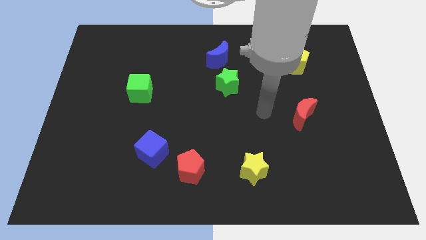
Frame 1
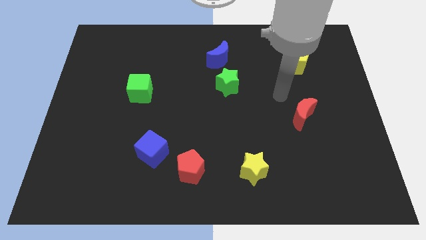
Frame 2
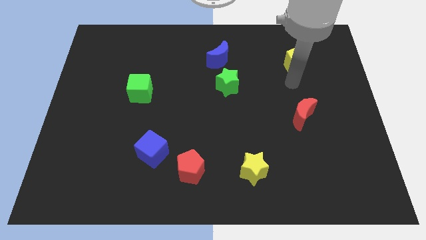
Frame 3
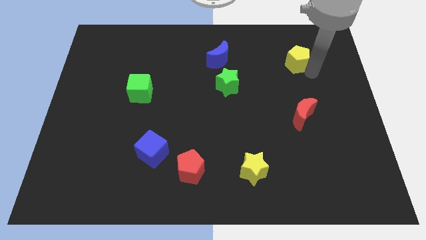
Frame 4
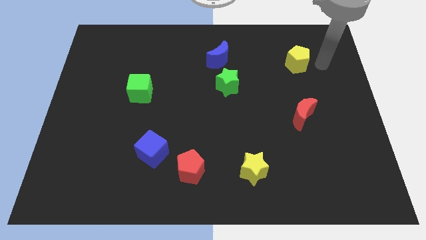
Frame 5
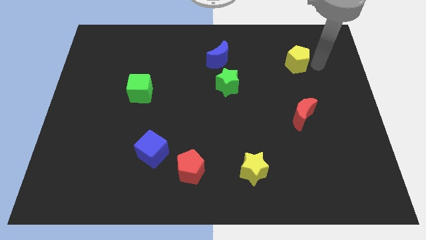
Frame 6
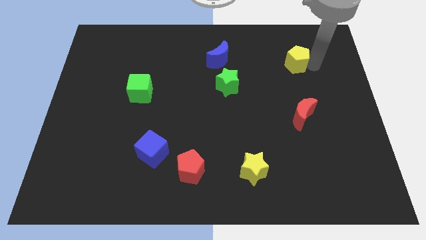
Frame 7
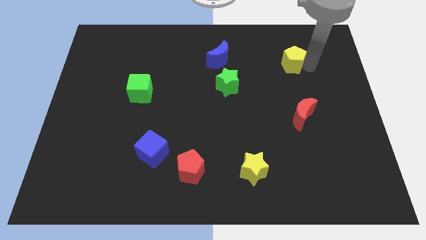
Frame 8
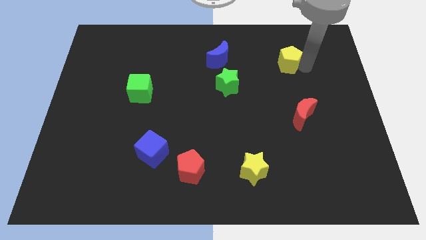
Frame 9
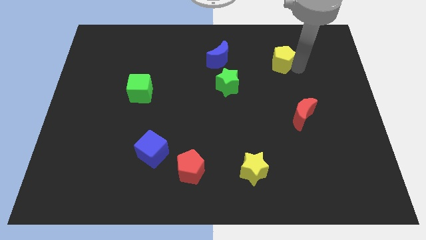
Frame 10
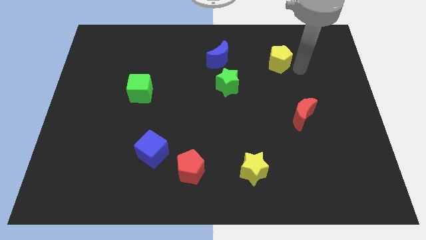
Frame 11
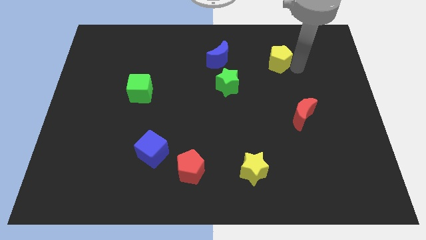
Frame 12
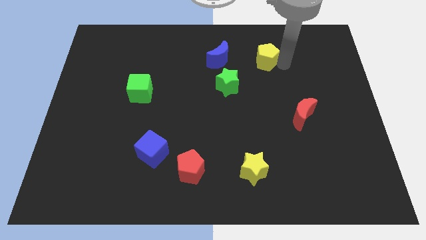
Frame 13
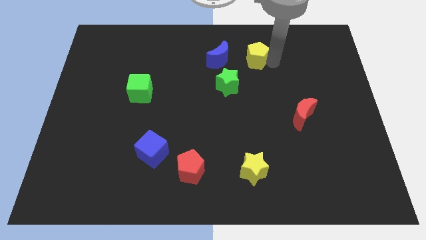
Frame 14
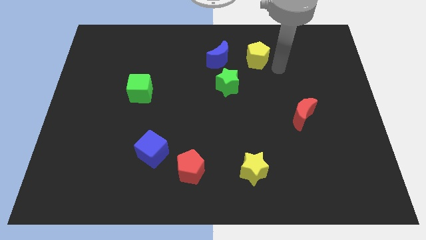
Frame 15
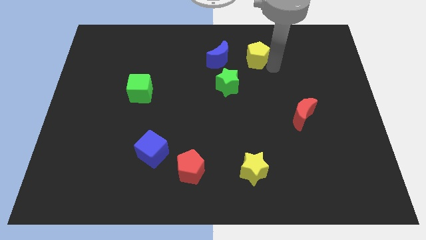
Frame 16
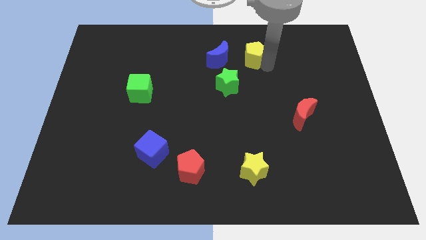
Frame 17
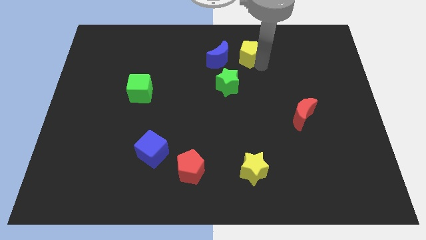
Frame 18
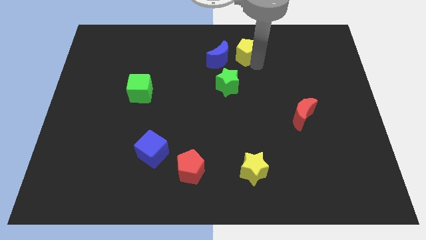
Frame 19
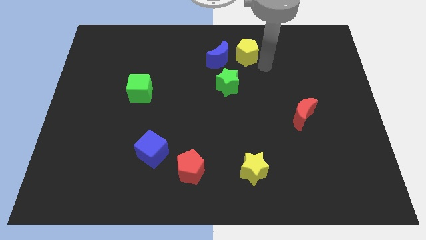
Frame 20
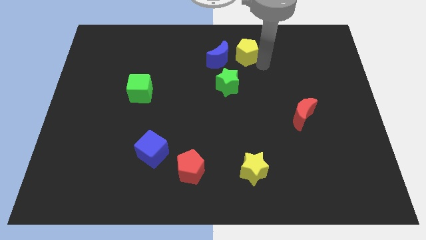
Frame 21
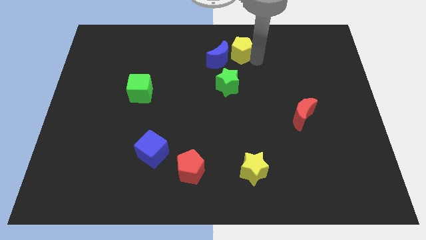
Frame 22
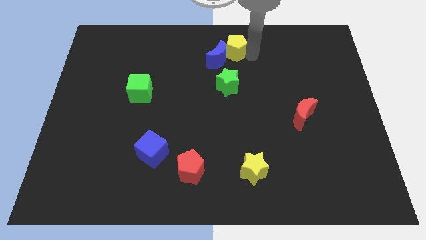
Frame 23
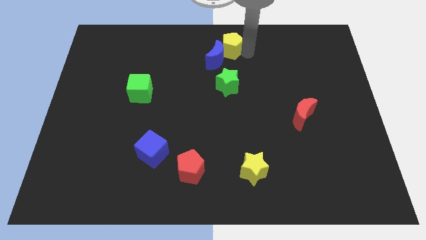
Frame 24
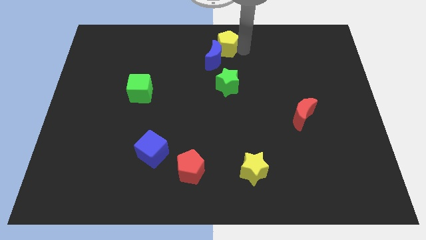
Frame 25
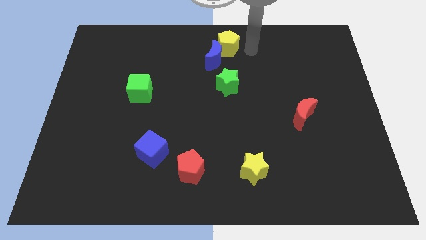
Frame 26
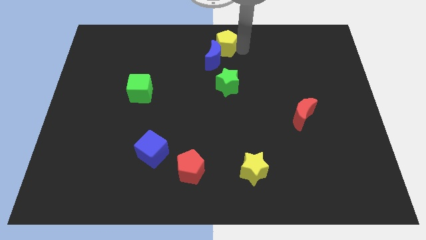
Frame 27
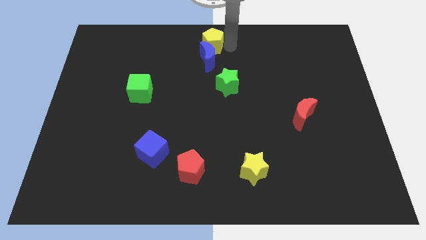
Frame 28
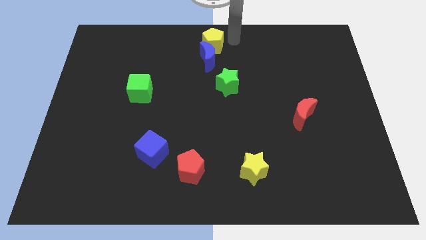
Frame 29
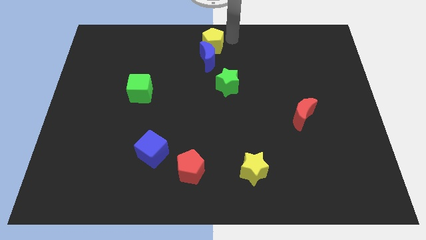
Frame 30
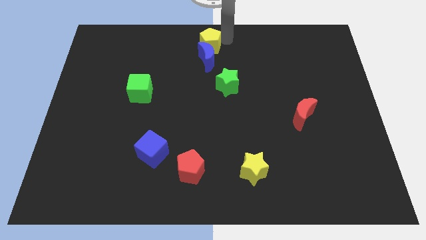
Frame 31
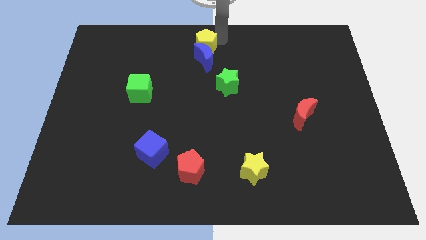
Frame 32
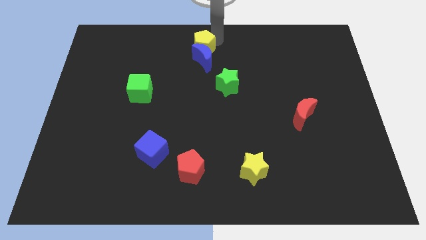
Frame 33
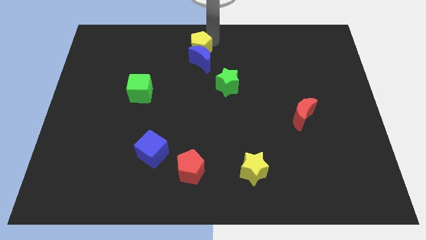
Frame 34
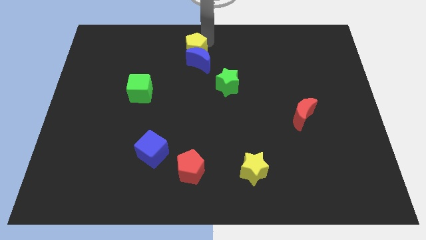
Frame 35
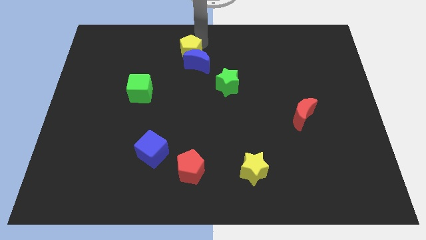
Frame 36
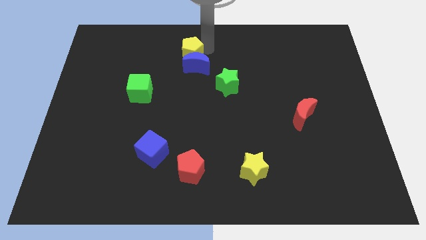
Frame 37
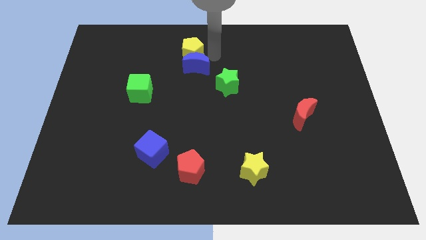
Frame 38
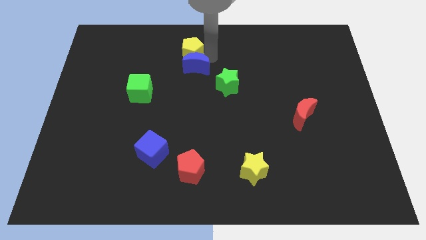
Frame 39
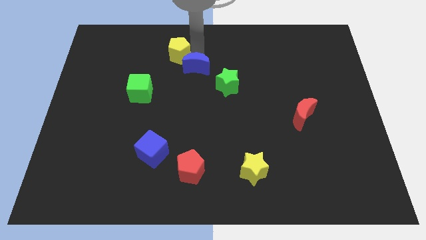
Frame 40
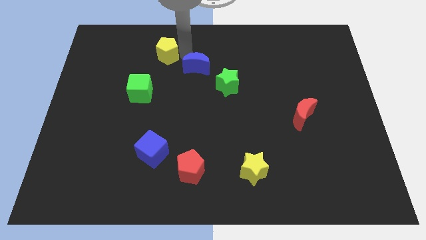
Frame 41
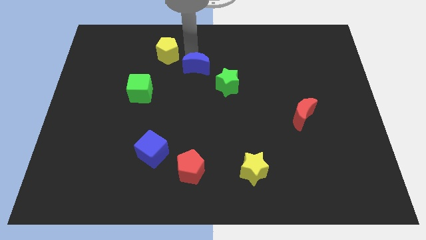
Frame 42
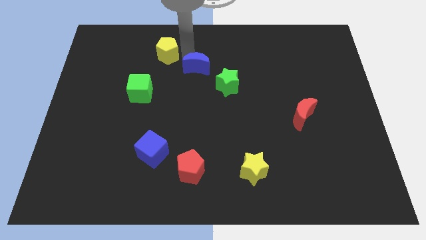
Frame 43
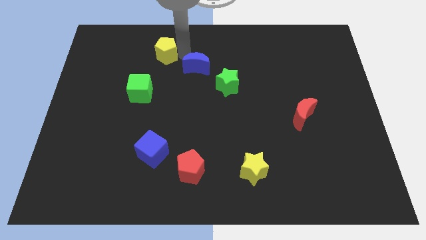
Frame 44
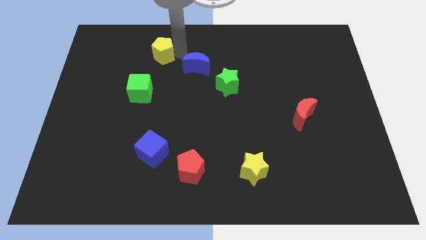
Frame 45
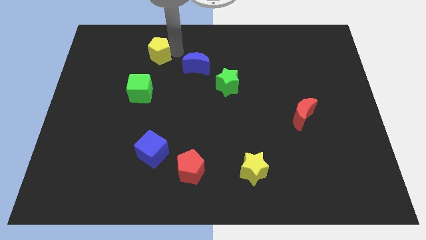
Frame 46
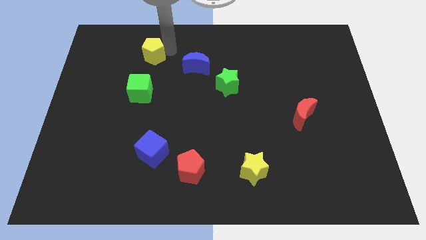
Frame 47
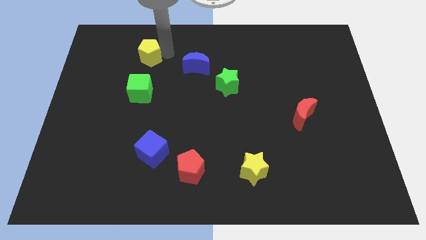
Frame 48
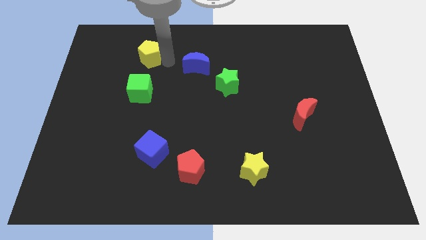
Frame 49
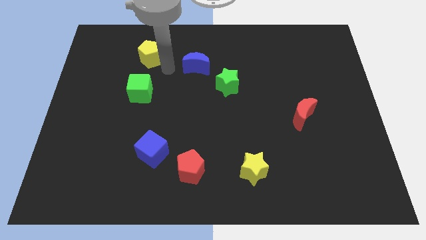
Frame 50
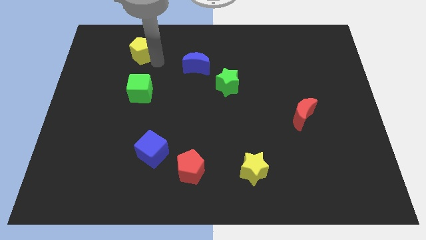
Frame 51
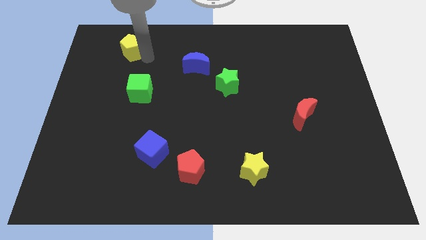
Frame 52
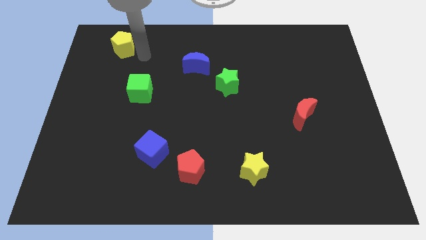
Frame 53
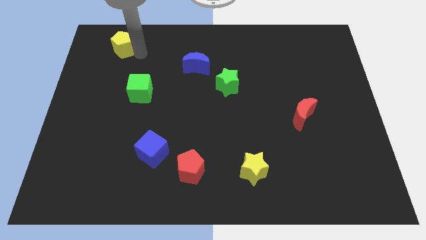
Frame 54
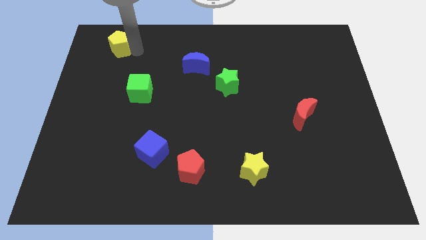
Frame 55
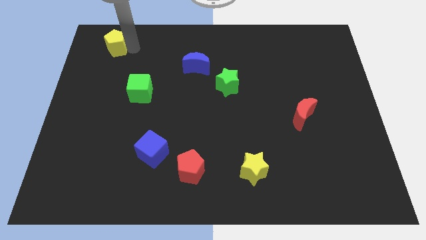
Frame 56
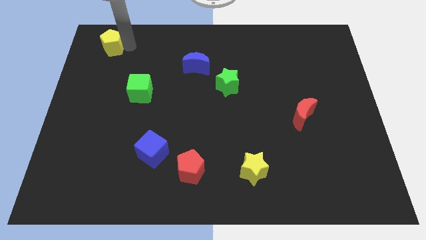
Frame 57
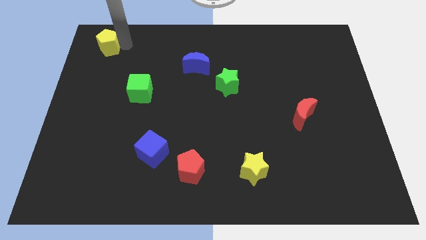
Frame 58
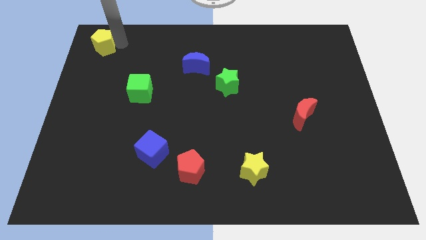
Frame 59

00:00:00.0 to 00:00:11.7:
move the yellow pentagon to the top left
